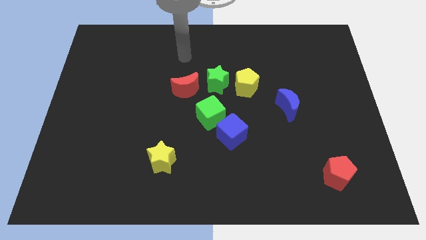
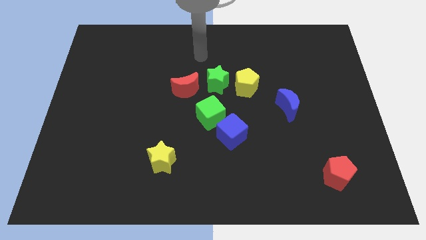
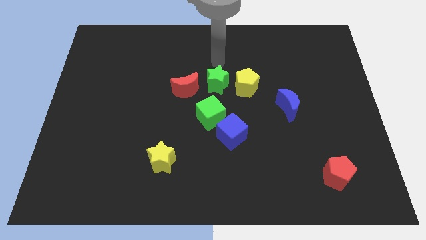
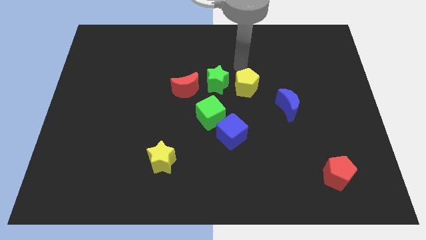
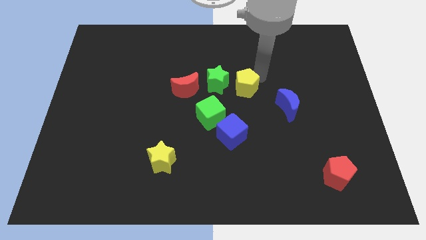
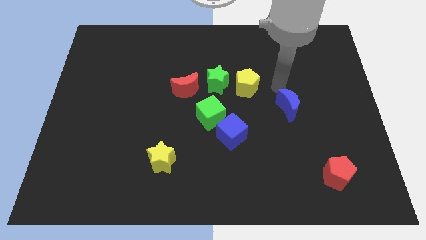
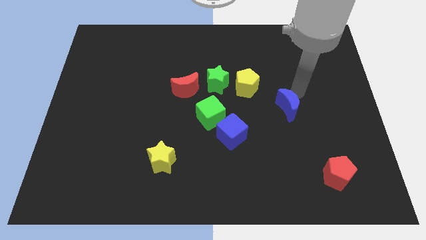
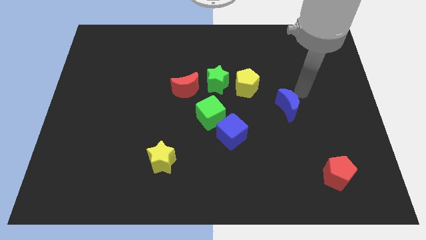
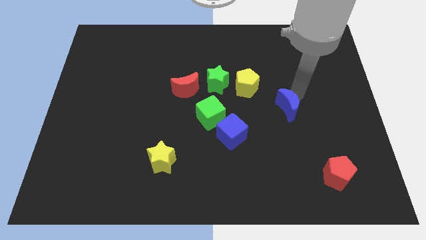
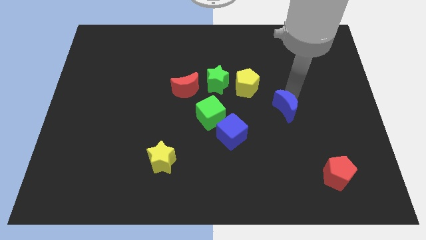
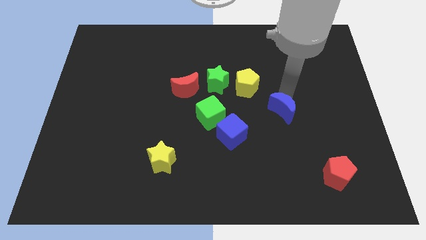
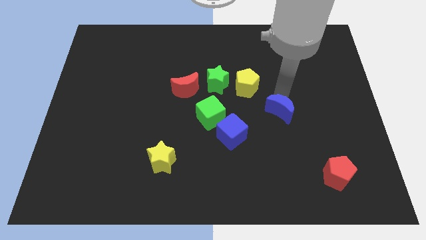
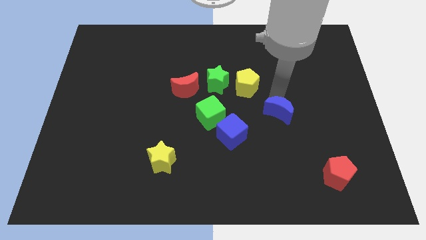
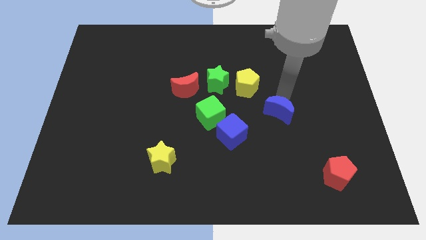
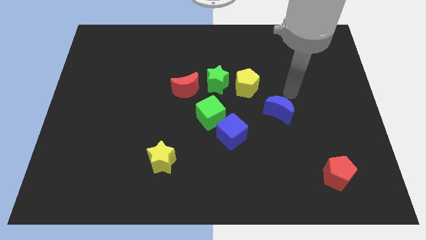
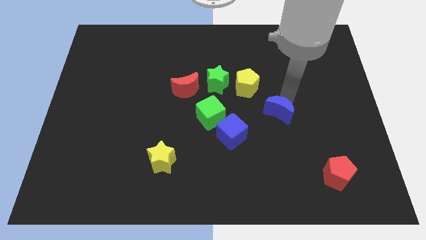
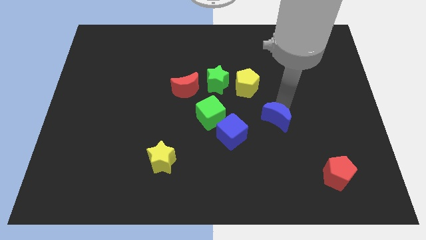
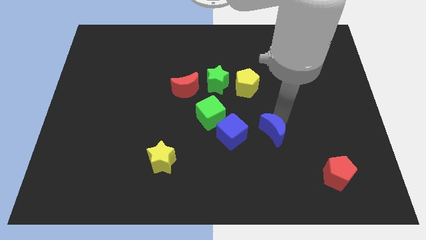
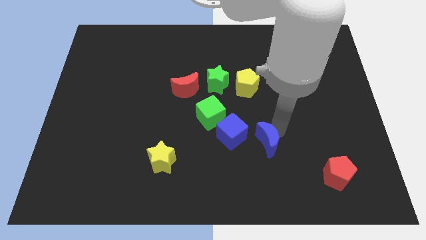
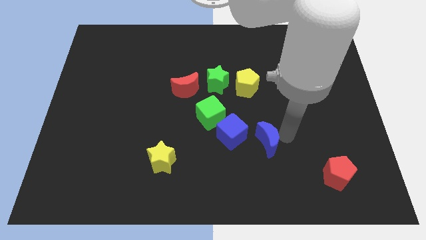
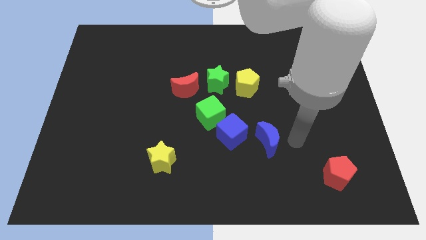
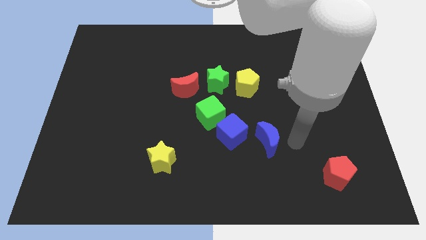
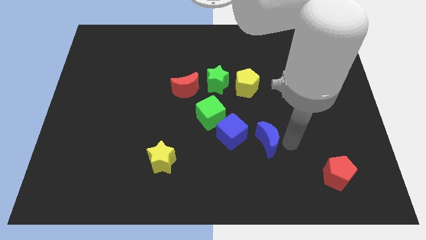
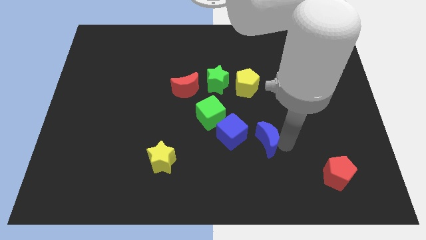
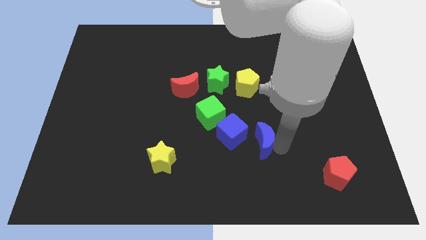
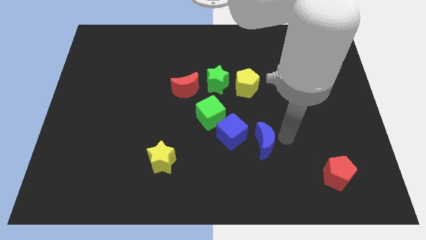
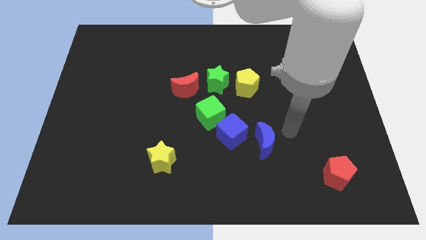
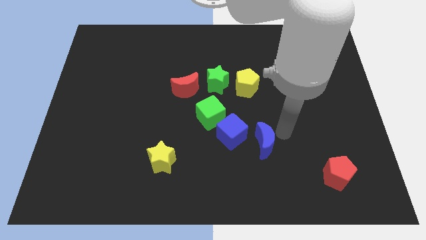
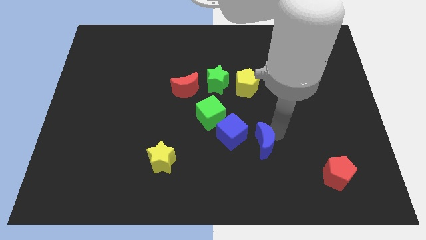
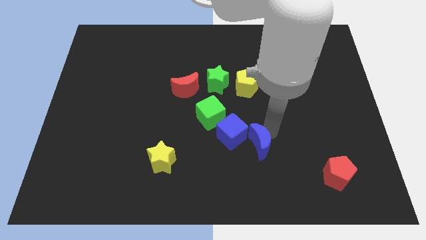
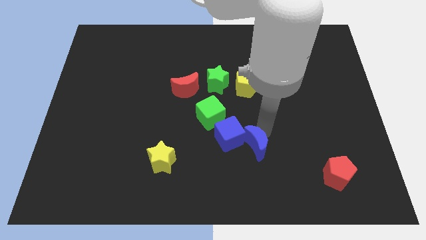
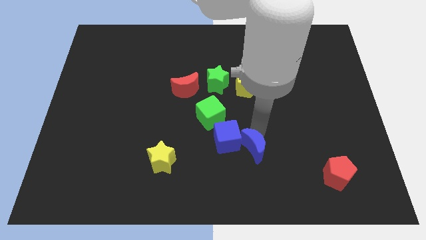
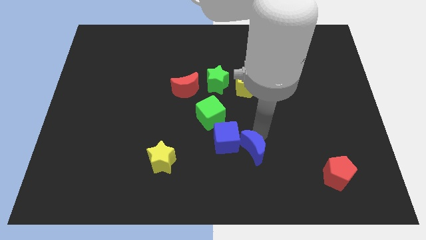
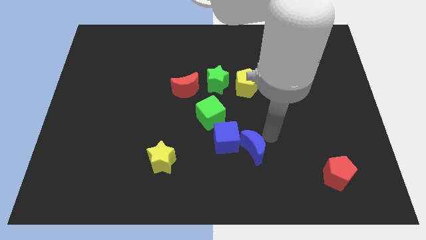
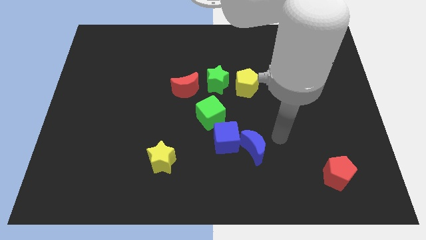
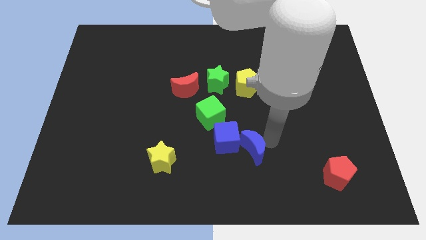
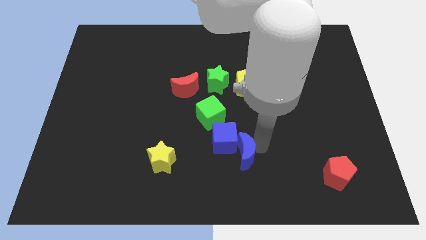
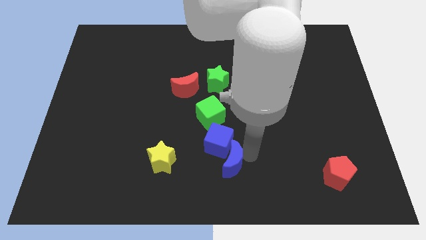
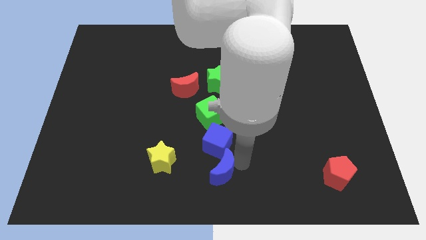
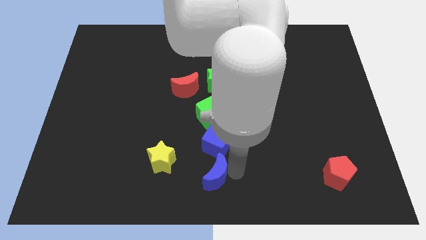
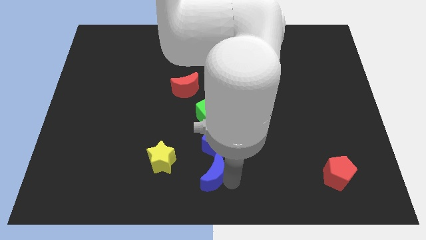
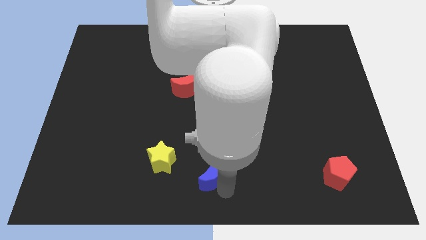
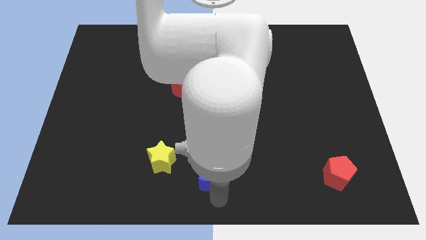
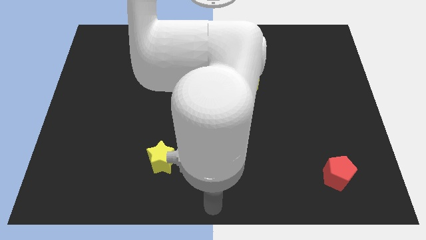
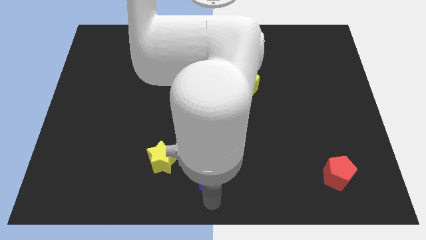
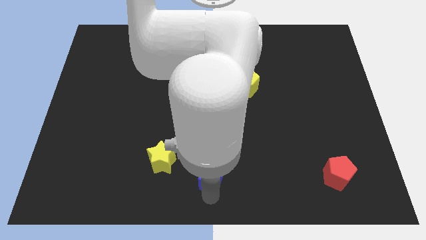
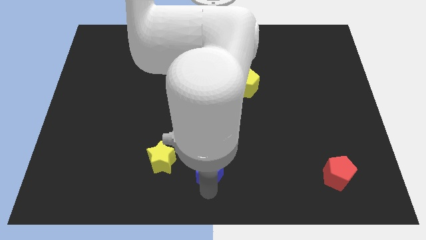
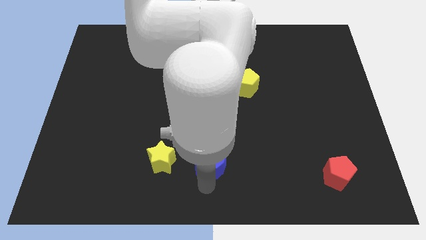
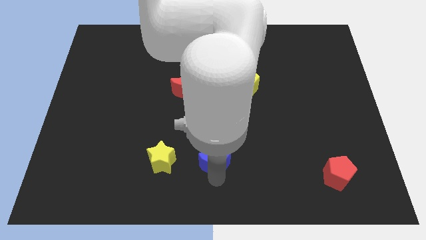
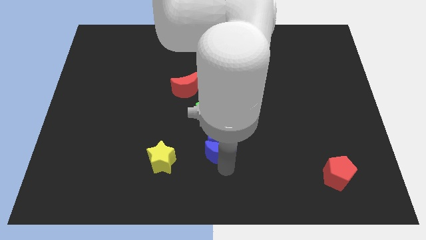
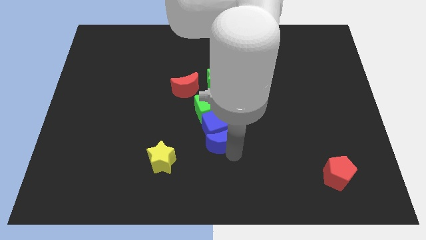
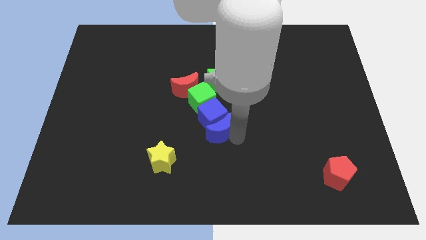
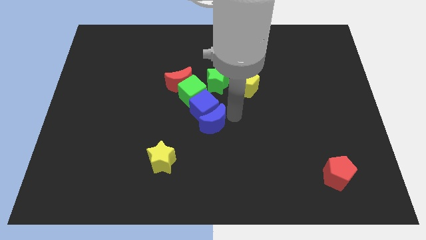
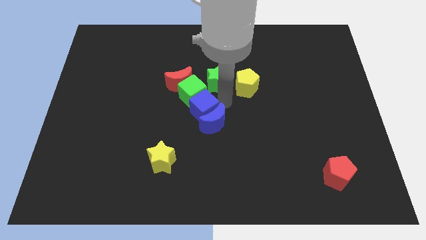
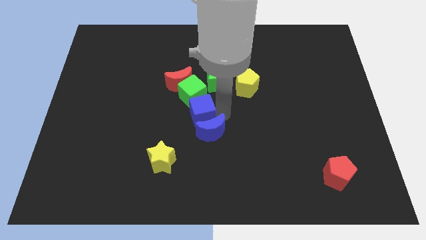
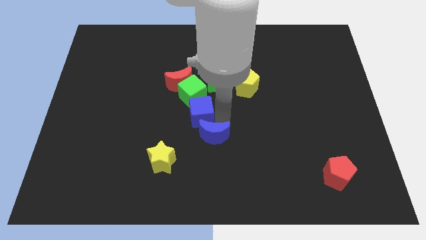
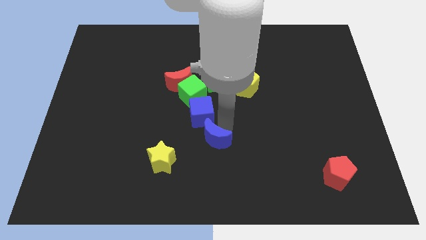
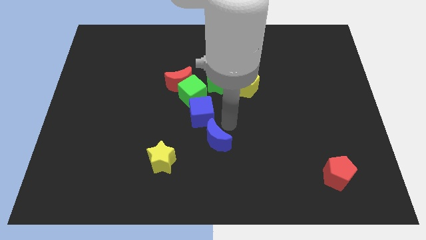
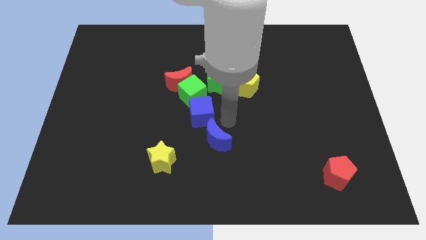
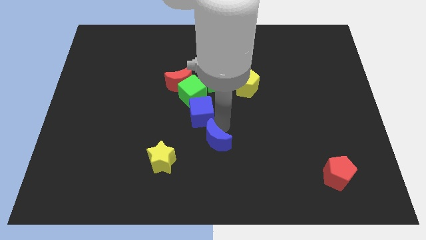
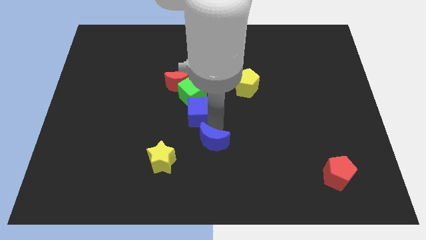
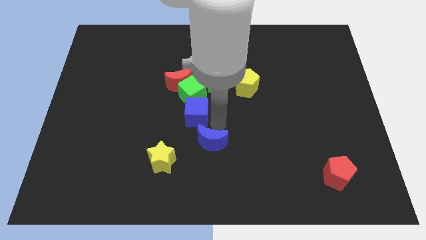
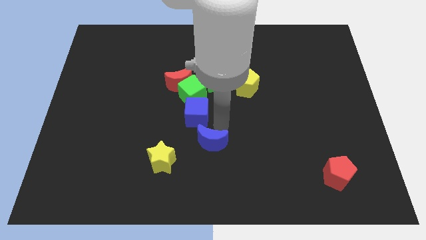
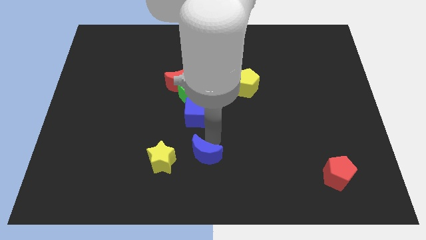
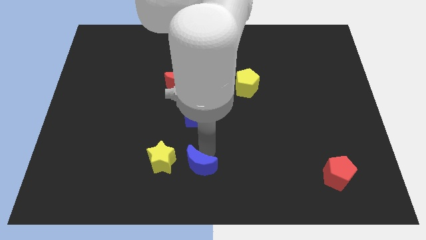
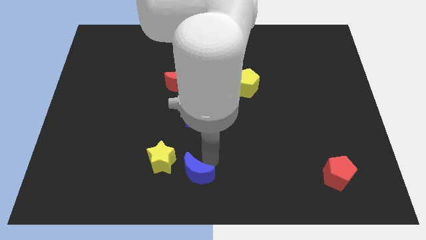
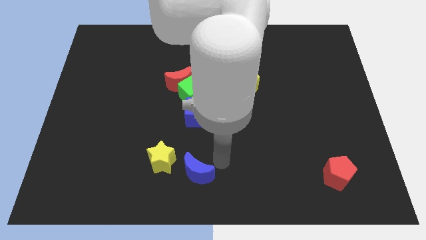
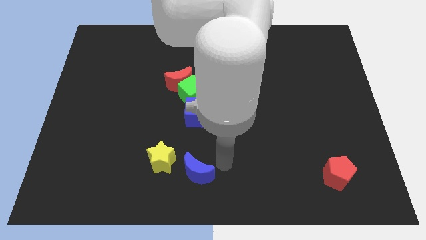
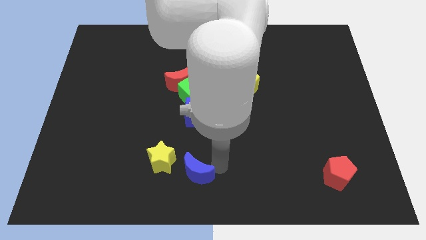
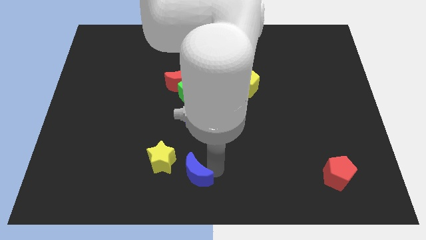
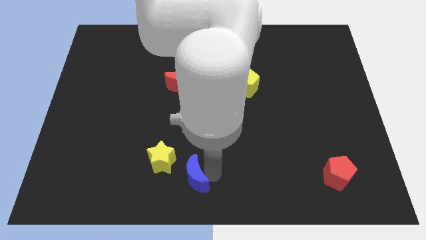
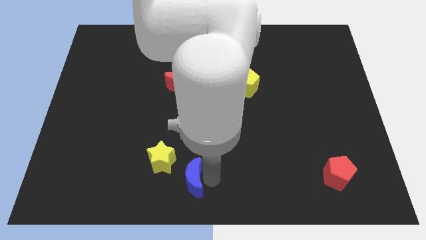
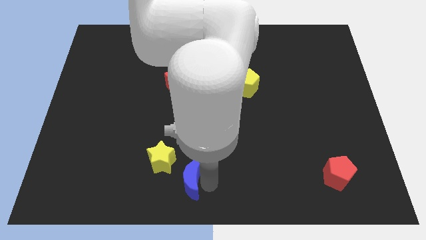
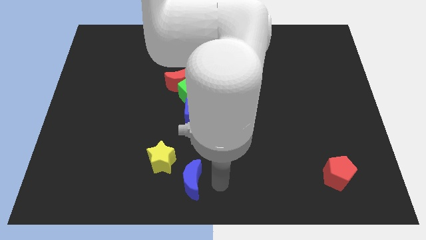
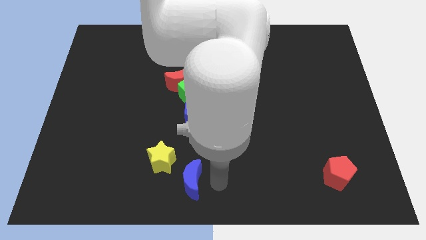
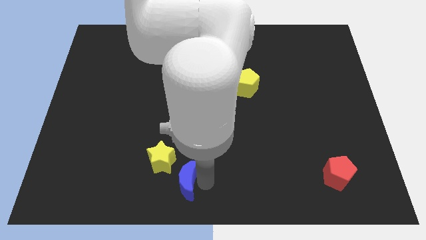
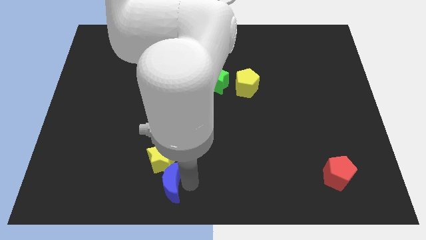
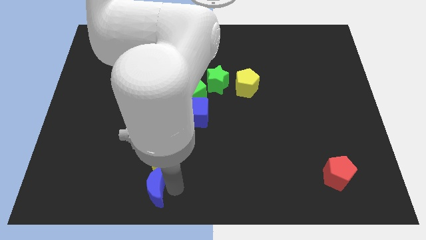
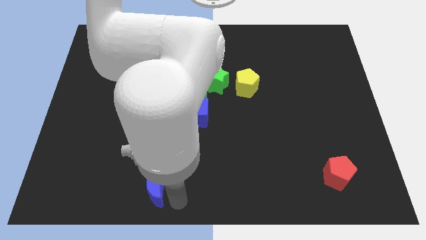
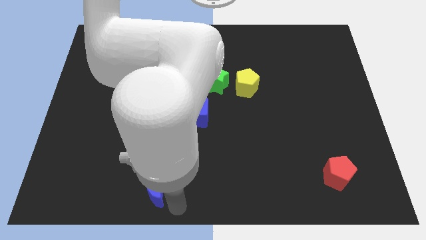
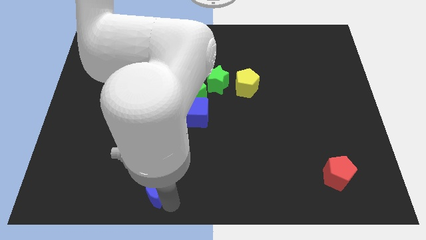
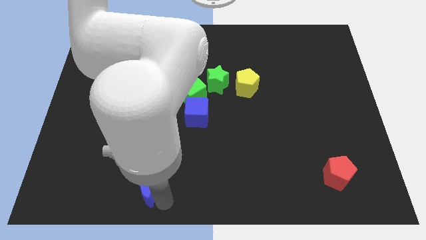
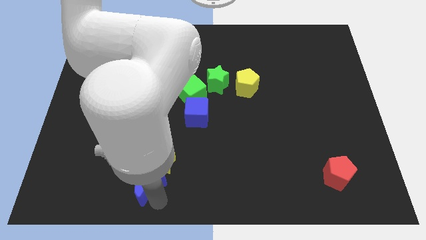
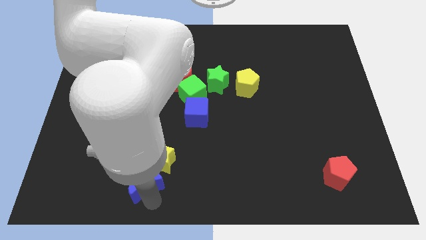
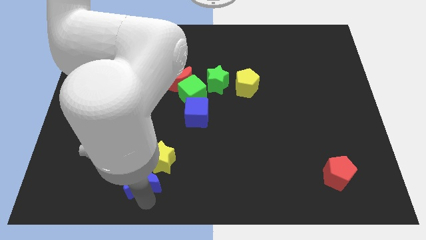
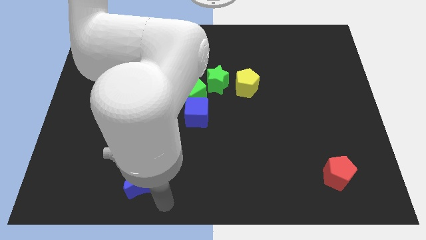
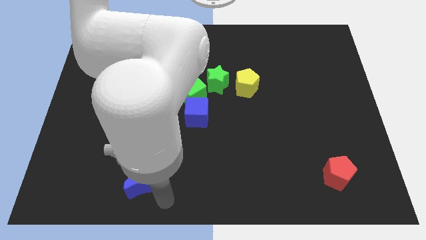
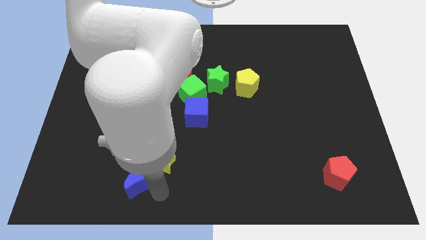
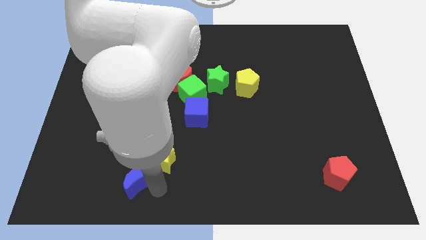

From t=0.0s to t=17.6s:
slide the blue moon to the left side of the yellow star
